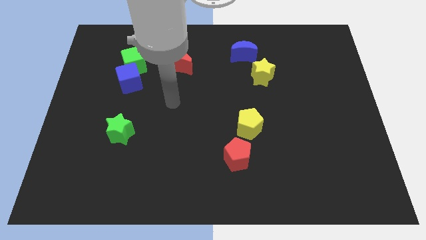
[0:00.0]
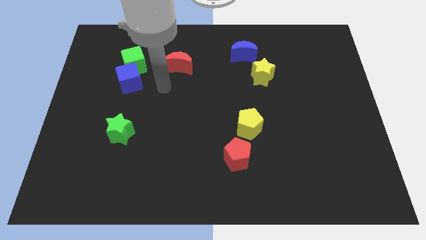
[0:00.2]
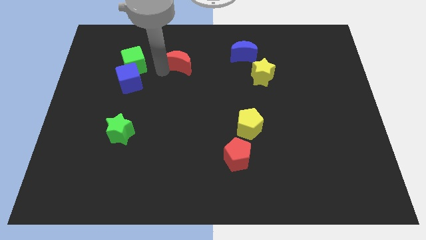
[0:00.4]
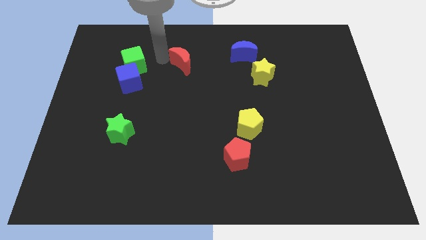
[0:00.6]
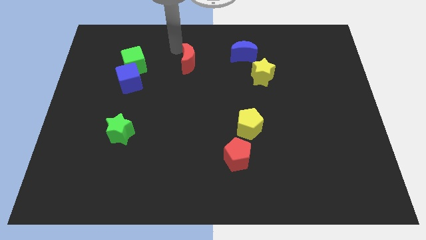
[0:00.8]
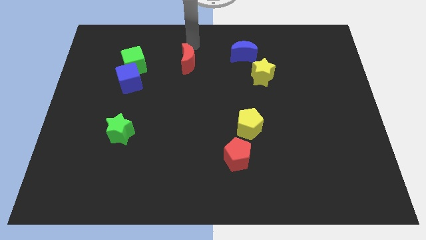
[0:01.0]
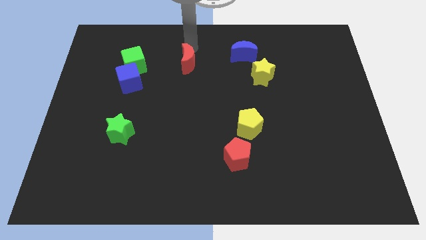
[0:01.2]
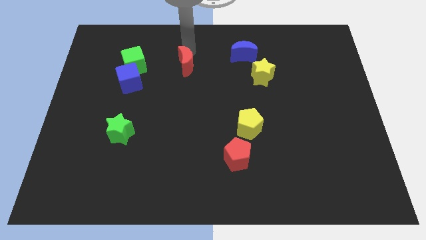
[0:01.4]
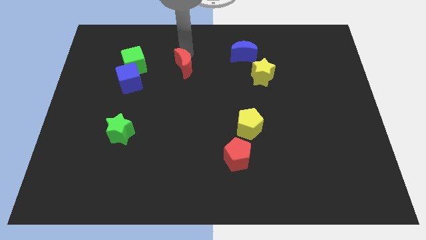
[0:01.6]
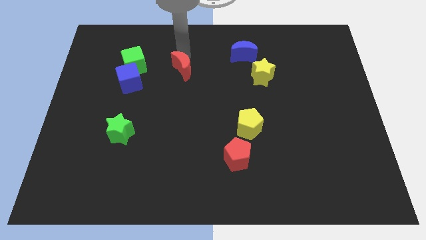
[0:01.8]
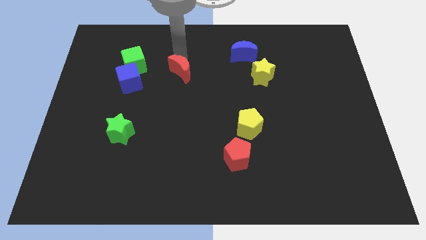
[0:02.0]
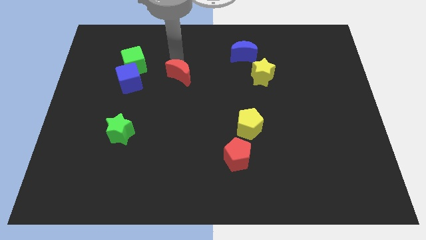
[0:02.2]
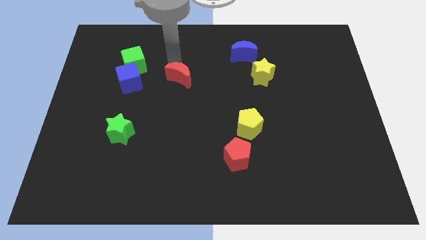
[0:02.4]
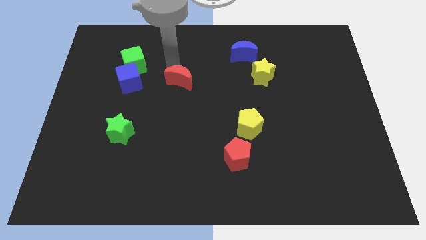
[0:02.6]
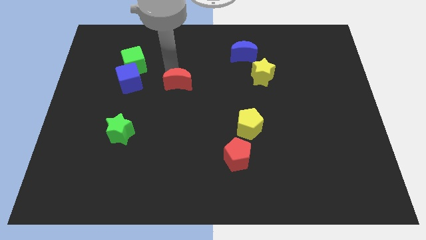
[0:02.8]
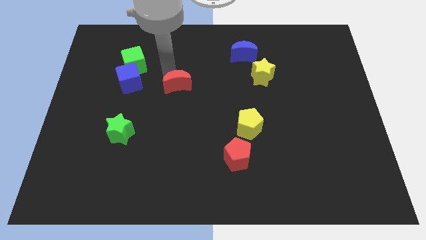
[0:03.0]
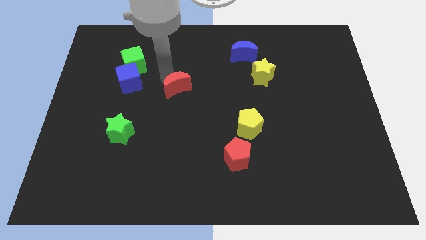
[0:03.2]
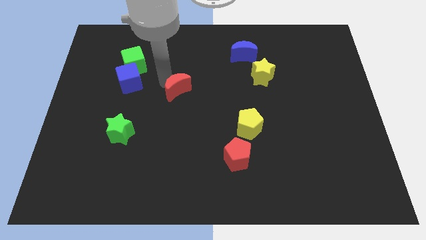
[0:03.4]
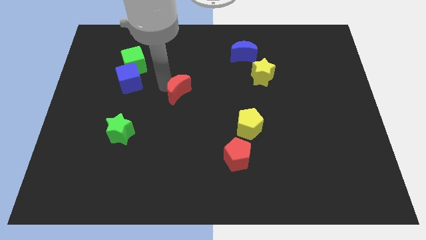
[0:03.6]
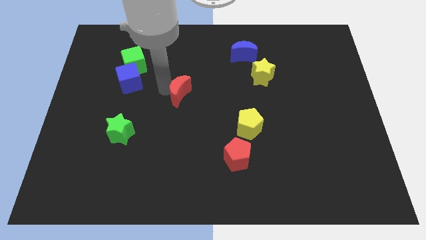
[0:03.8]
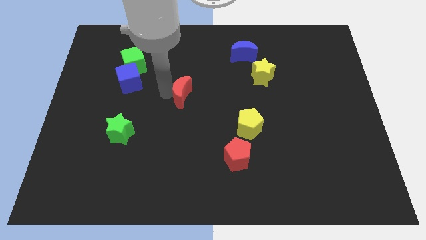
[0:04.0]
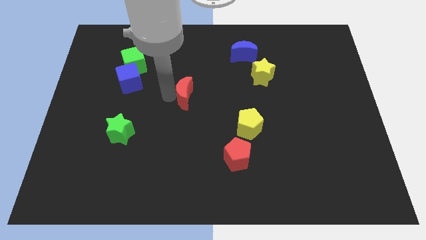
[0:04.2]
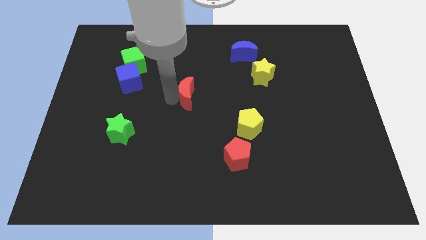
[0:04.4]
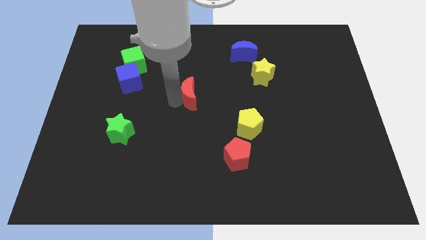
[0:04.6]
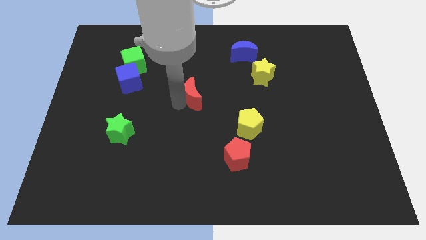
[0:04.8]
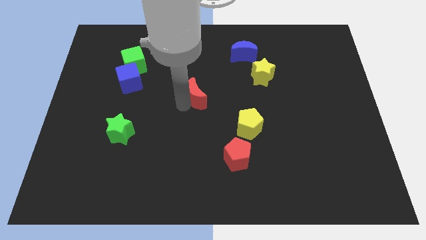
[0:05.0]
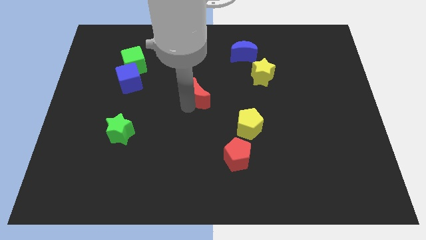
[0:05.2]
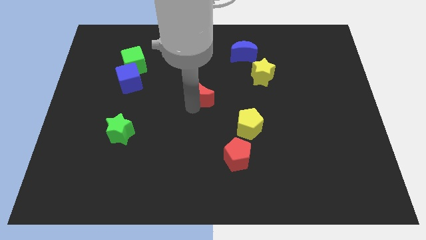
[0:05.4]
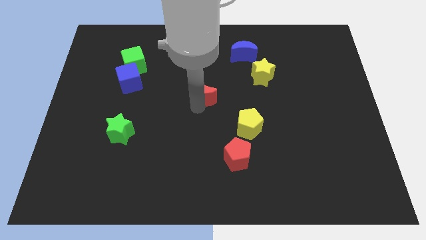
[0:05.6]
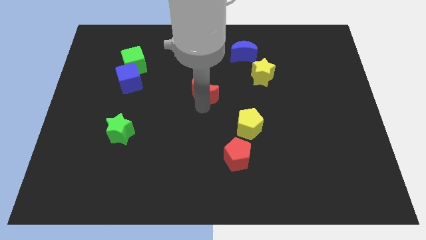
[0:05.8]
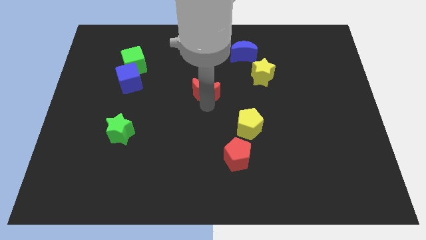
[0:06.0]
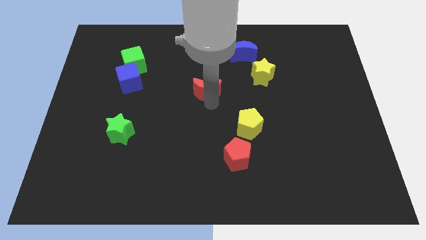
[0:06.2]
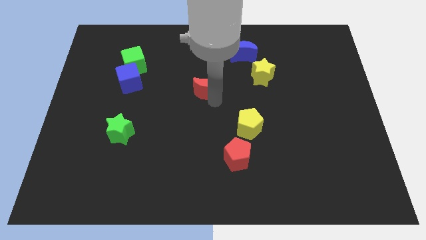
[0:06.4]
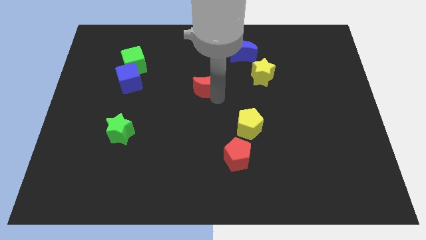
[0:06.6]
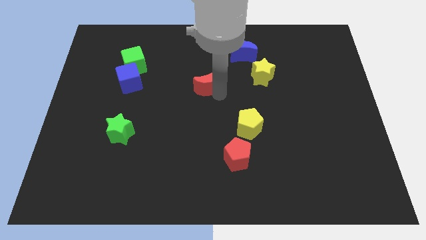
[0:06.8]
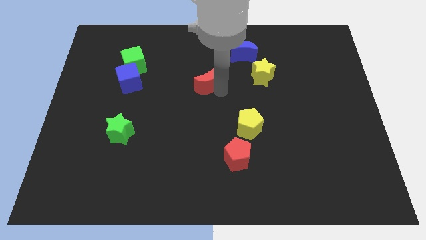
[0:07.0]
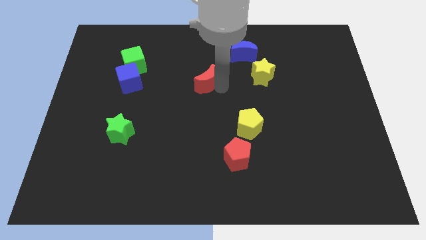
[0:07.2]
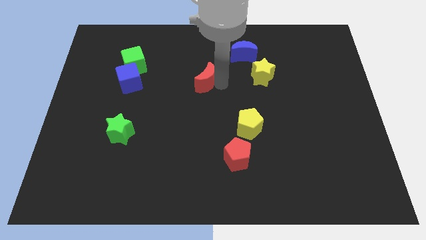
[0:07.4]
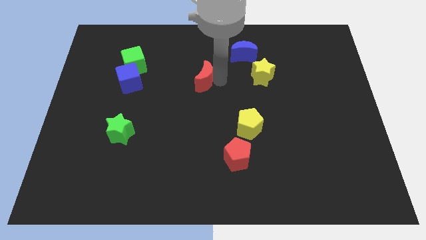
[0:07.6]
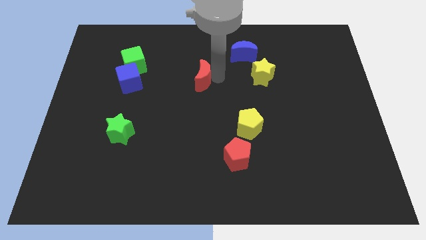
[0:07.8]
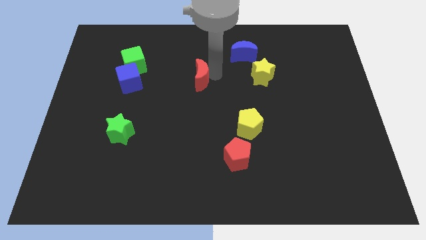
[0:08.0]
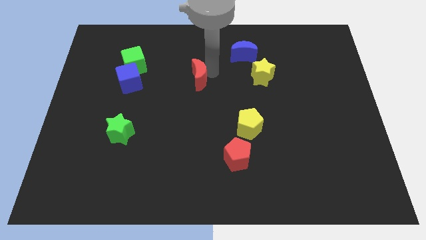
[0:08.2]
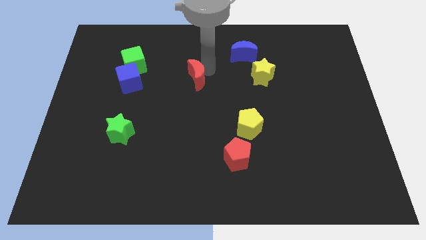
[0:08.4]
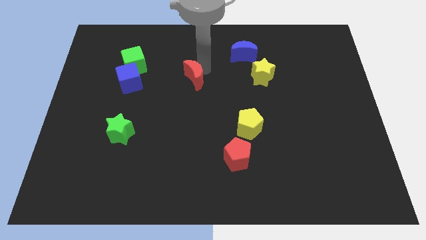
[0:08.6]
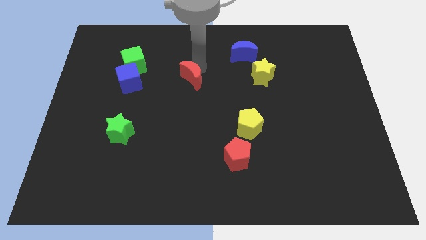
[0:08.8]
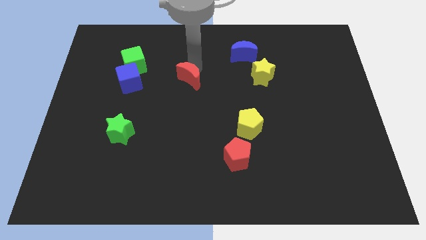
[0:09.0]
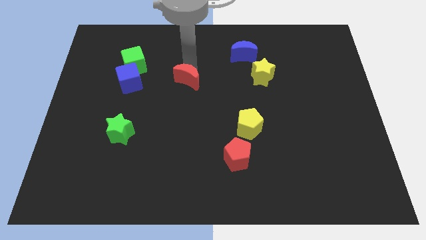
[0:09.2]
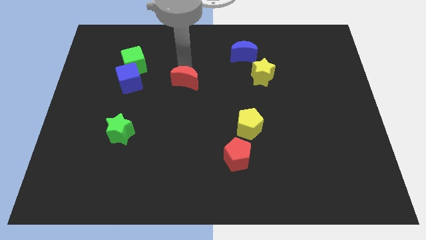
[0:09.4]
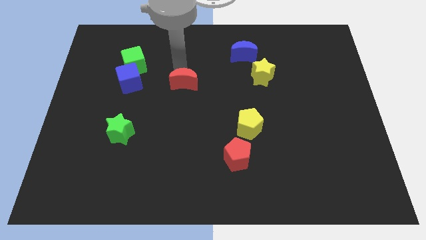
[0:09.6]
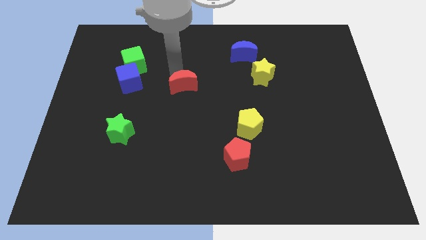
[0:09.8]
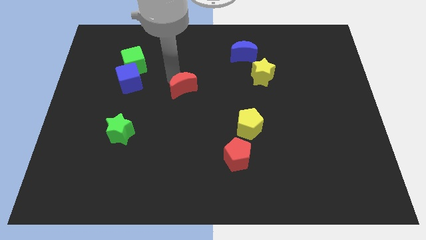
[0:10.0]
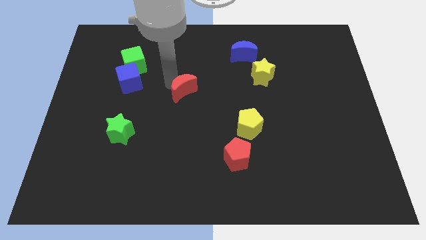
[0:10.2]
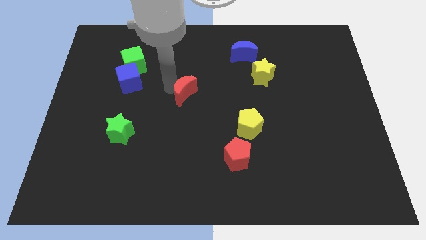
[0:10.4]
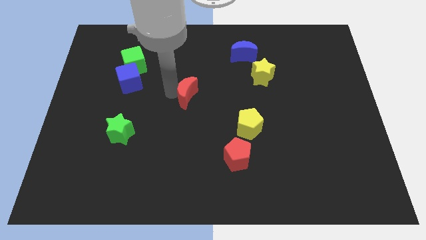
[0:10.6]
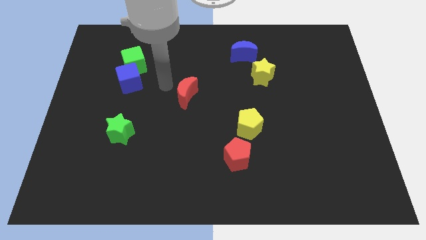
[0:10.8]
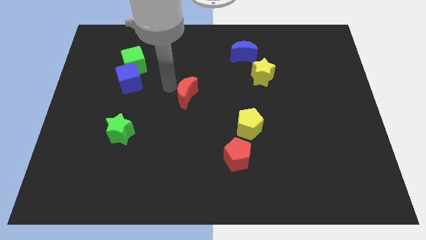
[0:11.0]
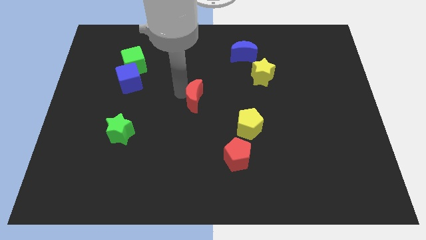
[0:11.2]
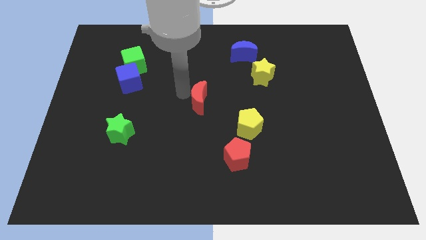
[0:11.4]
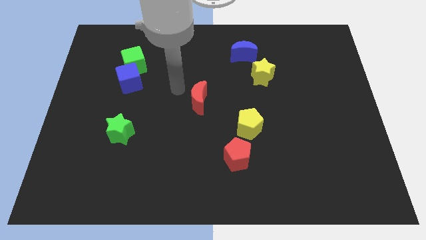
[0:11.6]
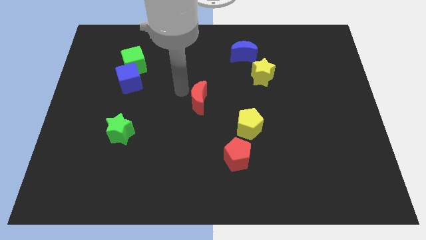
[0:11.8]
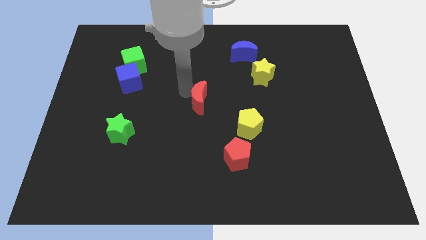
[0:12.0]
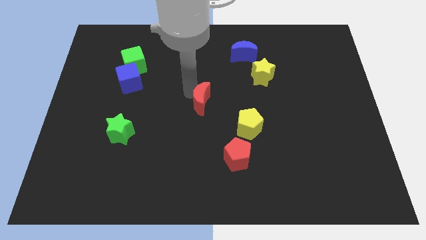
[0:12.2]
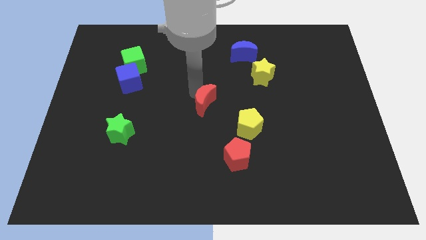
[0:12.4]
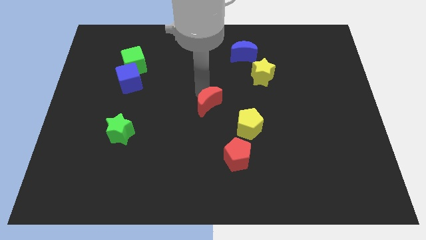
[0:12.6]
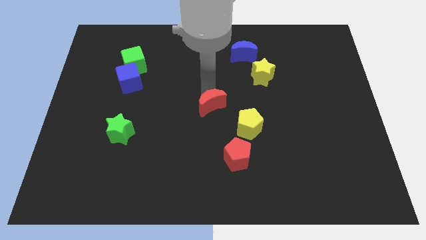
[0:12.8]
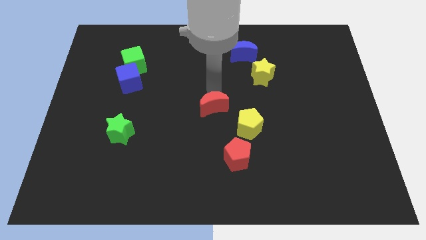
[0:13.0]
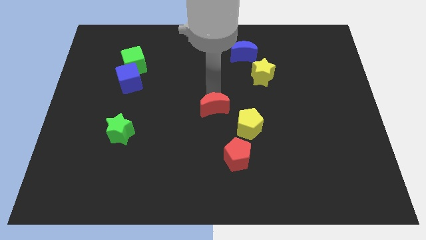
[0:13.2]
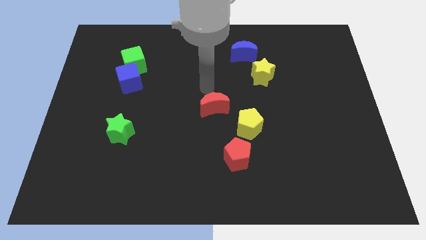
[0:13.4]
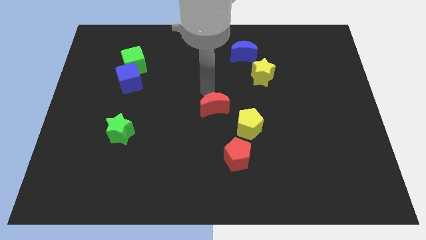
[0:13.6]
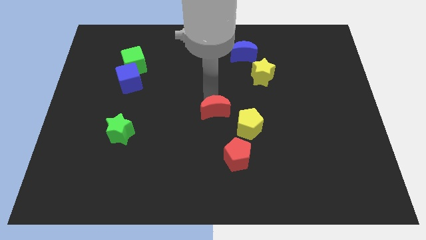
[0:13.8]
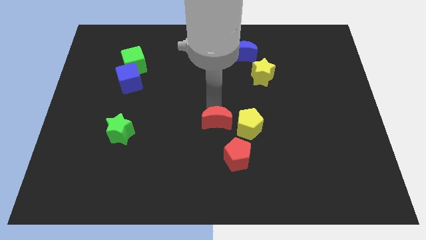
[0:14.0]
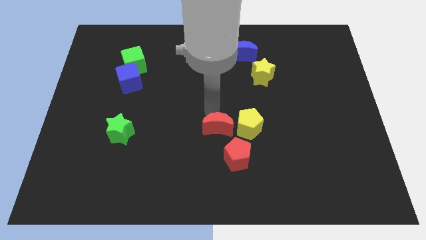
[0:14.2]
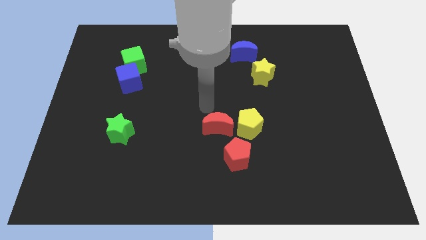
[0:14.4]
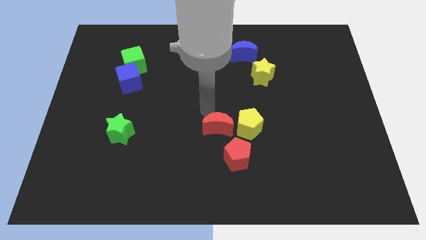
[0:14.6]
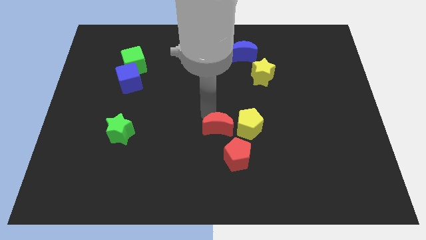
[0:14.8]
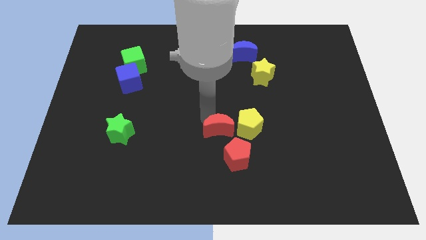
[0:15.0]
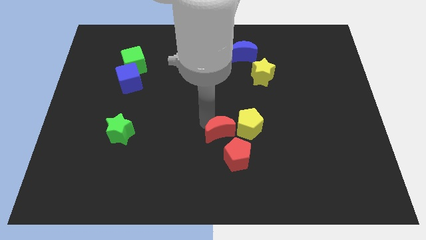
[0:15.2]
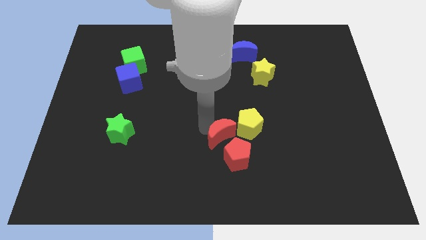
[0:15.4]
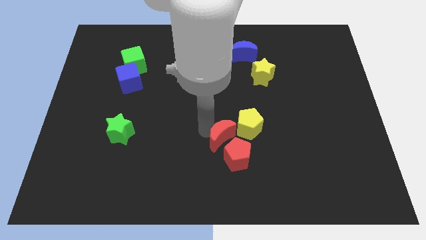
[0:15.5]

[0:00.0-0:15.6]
push the red moon to the red pentagon
